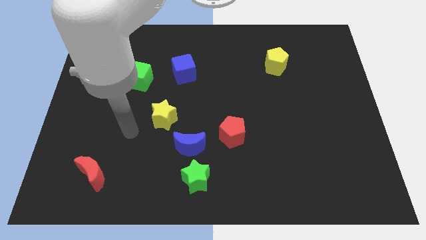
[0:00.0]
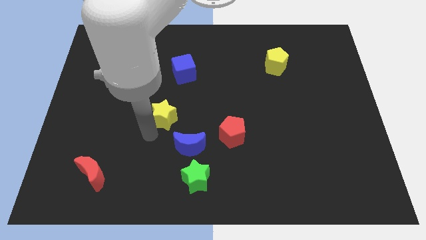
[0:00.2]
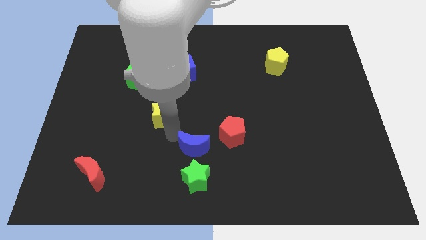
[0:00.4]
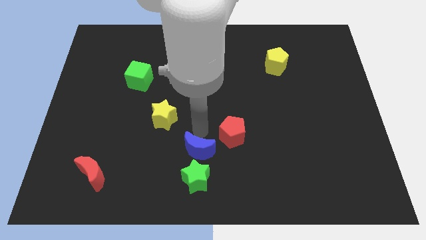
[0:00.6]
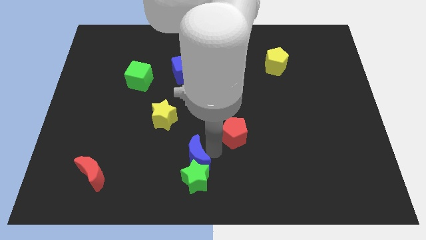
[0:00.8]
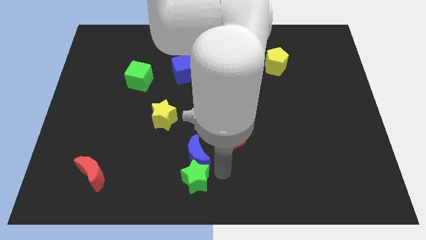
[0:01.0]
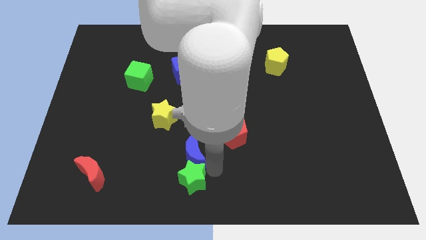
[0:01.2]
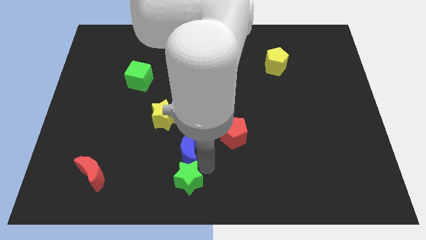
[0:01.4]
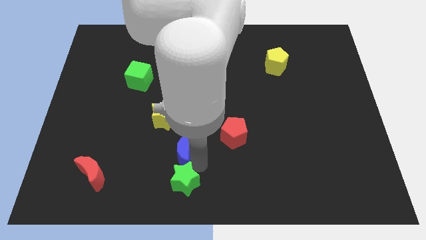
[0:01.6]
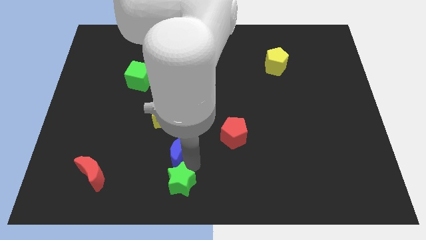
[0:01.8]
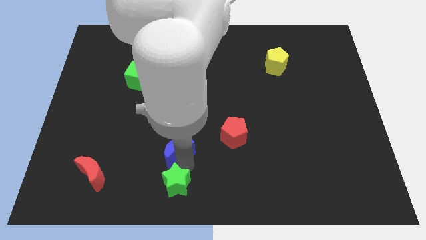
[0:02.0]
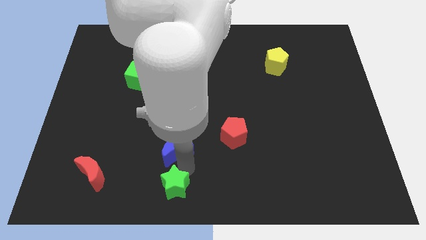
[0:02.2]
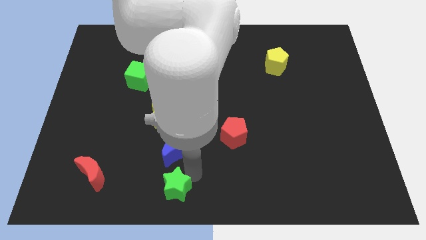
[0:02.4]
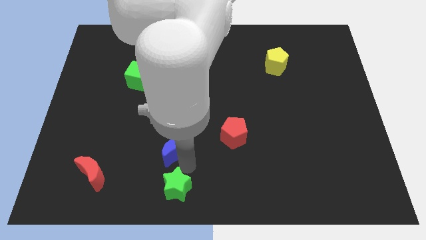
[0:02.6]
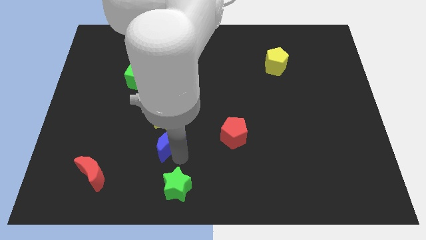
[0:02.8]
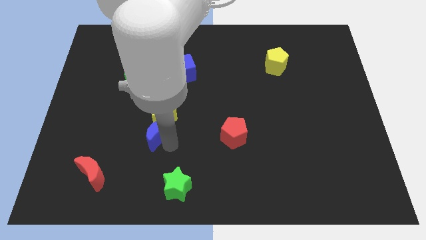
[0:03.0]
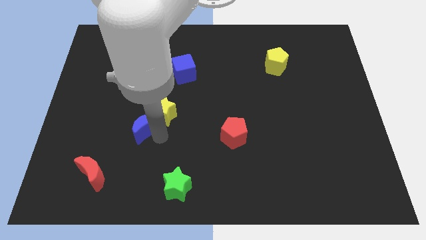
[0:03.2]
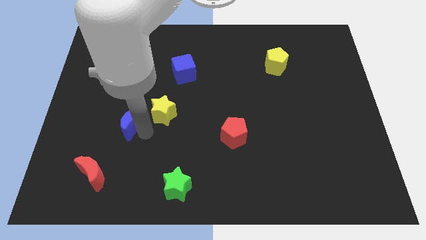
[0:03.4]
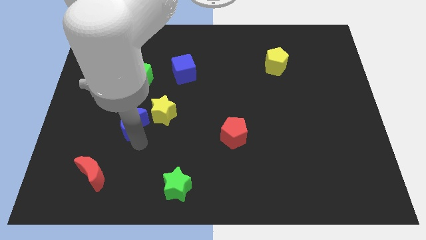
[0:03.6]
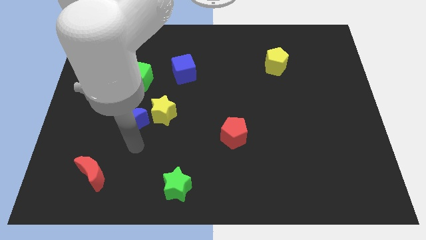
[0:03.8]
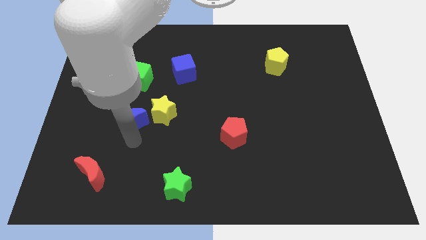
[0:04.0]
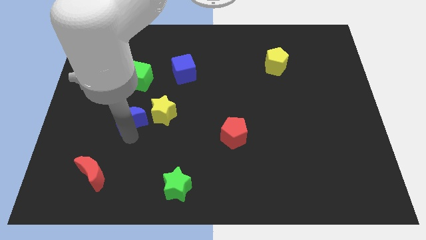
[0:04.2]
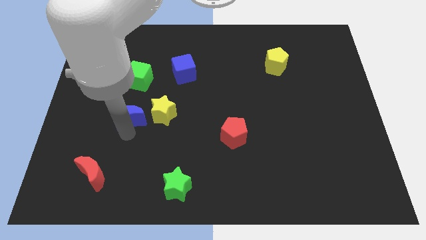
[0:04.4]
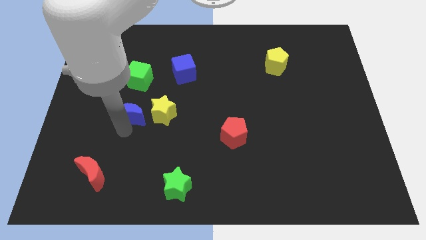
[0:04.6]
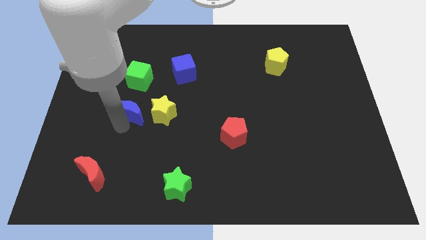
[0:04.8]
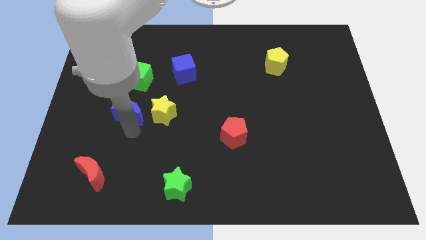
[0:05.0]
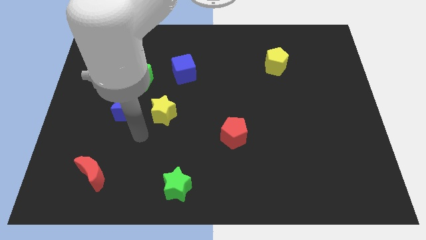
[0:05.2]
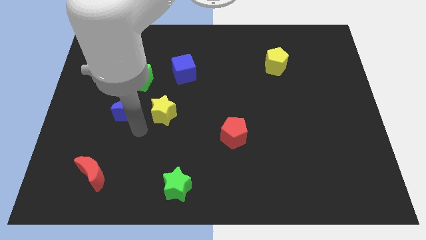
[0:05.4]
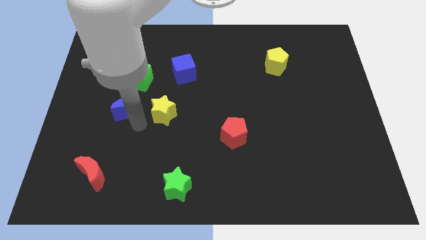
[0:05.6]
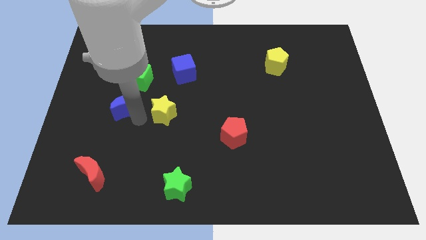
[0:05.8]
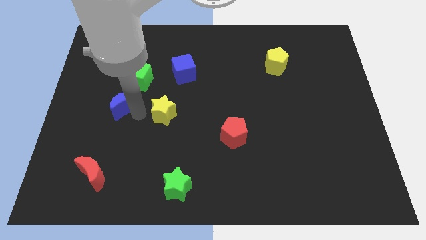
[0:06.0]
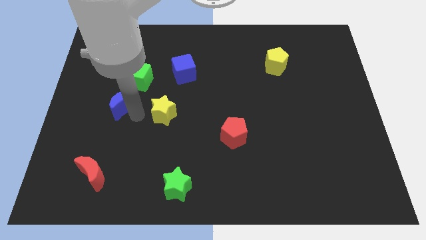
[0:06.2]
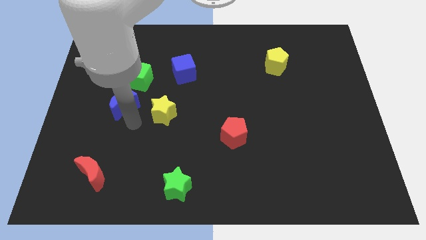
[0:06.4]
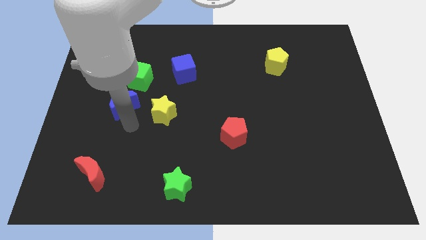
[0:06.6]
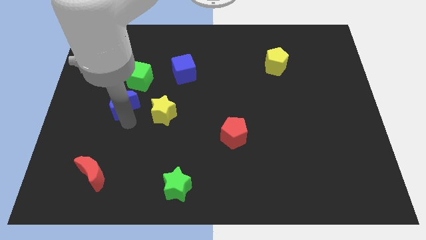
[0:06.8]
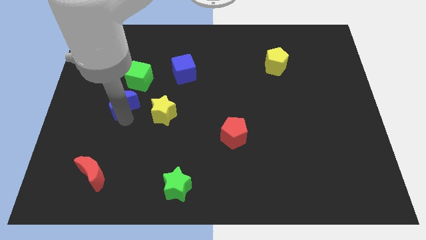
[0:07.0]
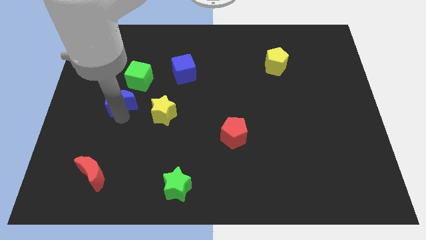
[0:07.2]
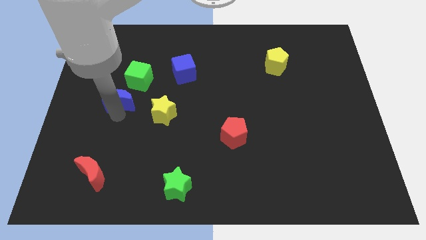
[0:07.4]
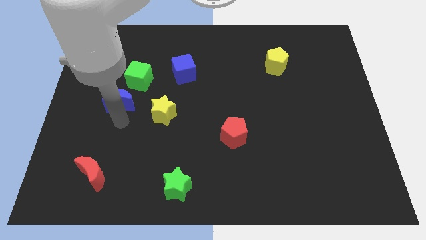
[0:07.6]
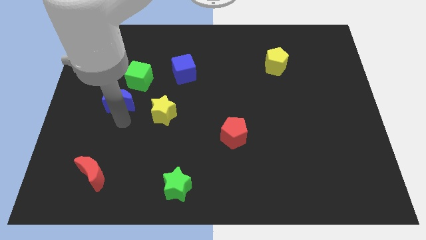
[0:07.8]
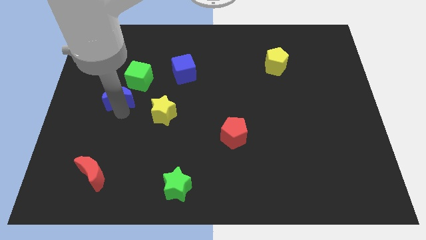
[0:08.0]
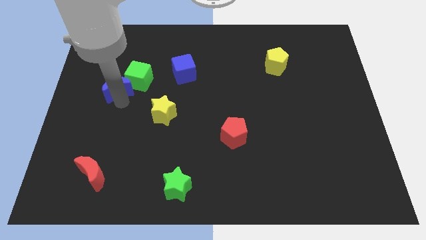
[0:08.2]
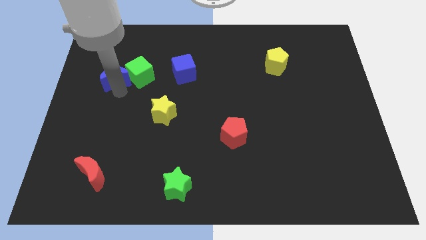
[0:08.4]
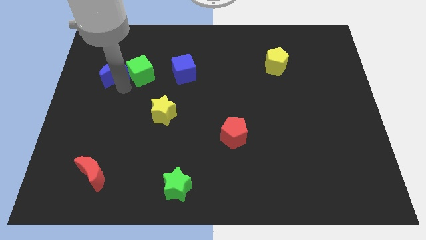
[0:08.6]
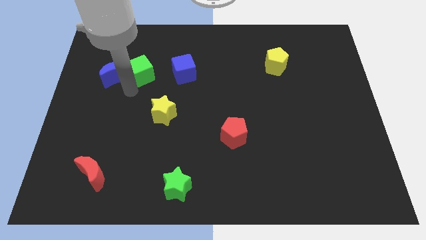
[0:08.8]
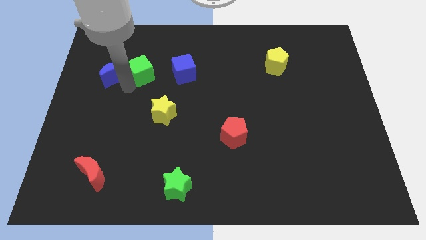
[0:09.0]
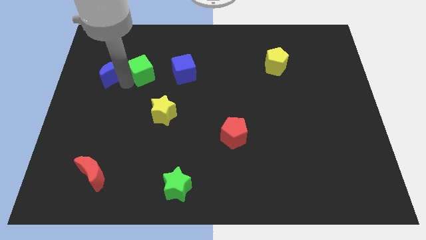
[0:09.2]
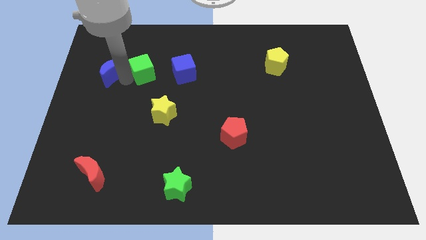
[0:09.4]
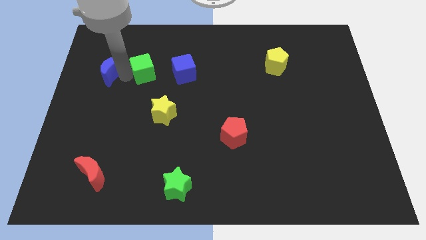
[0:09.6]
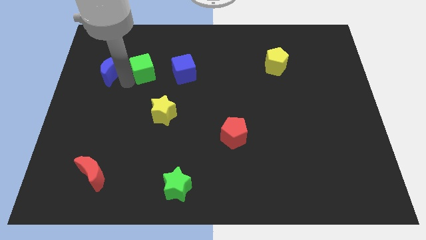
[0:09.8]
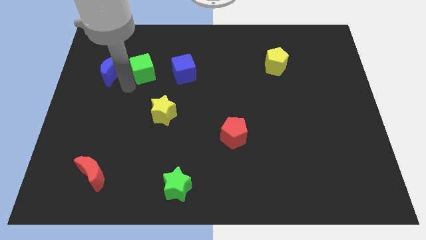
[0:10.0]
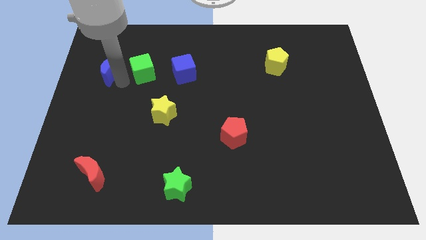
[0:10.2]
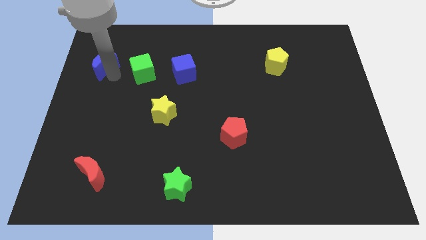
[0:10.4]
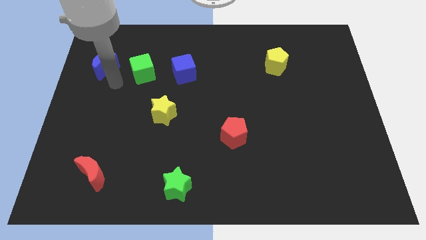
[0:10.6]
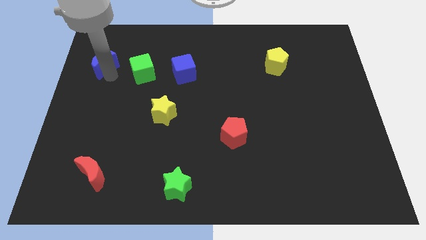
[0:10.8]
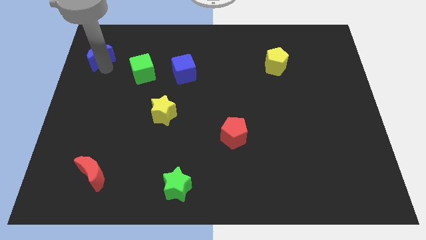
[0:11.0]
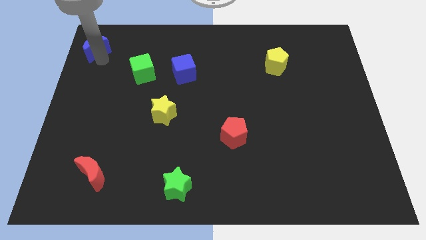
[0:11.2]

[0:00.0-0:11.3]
put the blue moon to the top left

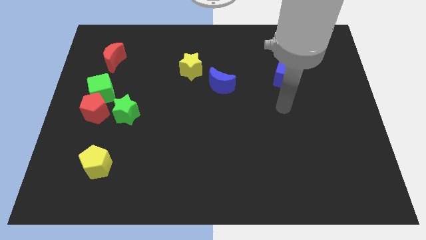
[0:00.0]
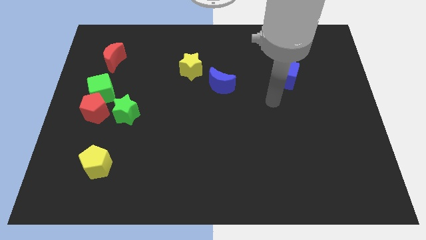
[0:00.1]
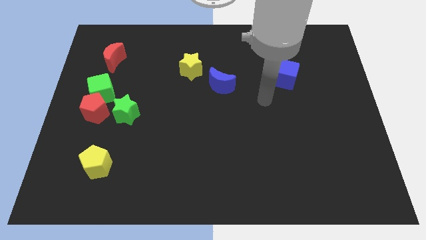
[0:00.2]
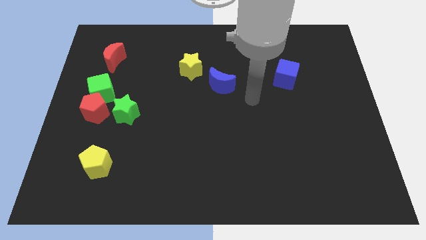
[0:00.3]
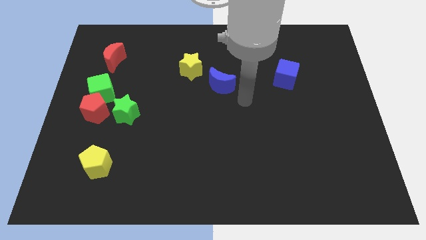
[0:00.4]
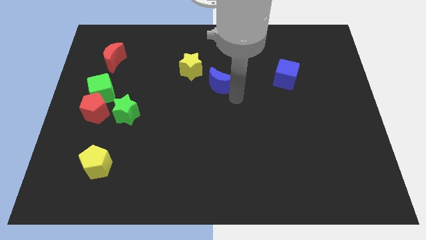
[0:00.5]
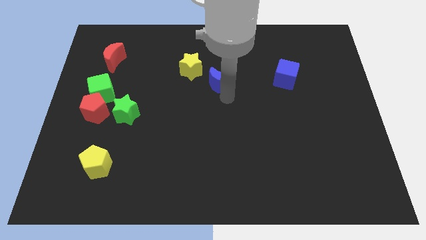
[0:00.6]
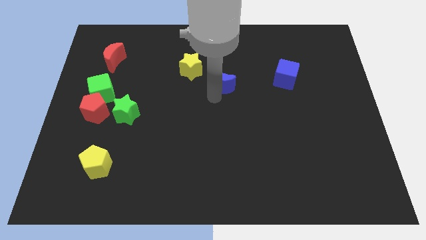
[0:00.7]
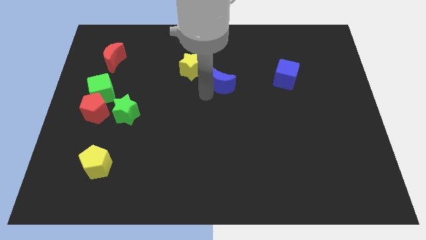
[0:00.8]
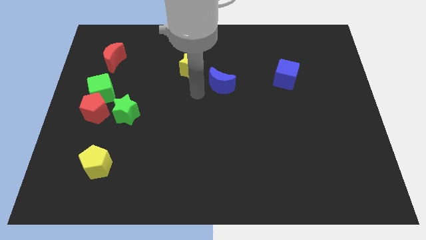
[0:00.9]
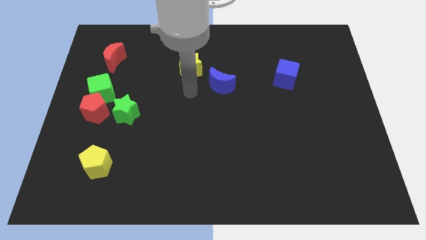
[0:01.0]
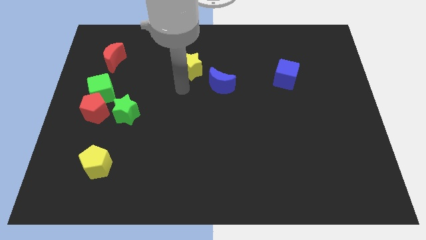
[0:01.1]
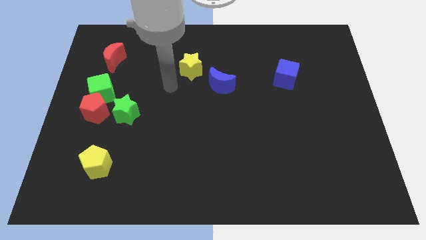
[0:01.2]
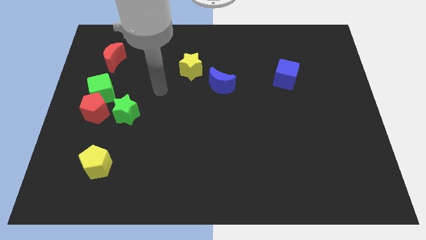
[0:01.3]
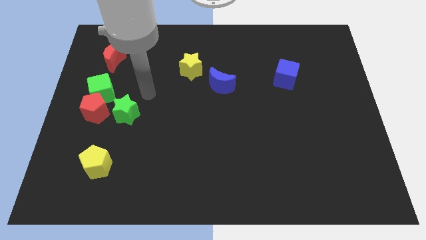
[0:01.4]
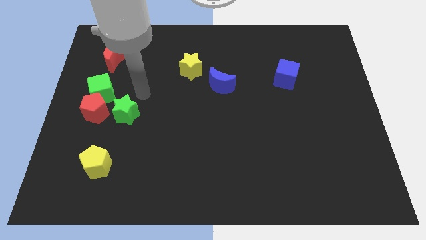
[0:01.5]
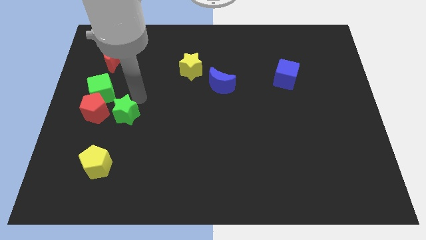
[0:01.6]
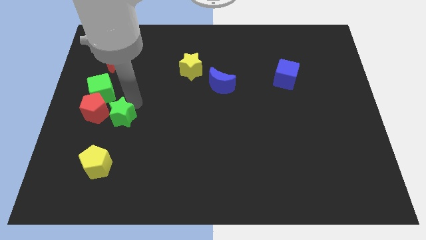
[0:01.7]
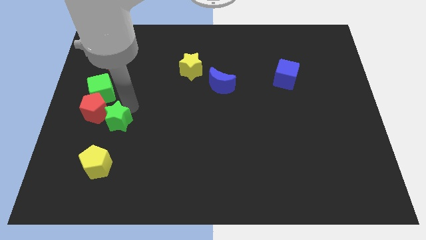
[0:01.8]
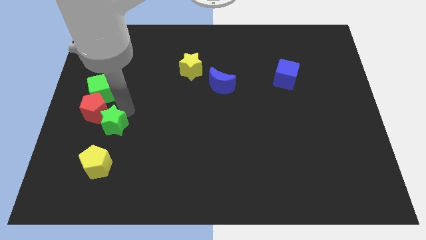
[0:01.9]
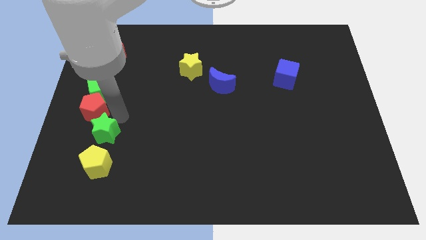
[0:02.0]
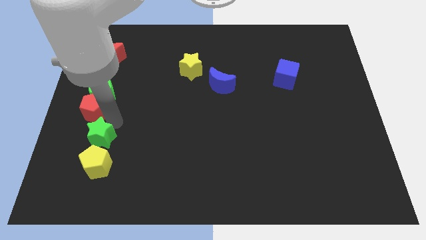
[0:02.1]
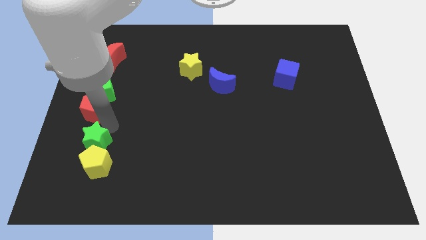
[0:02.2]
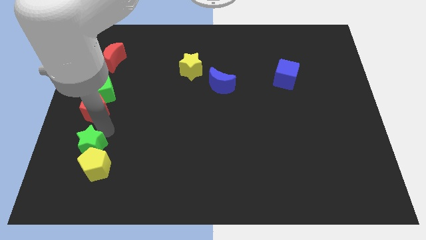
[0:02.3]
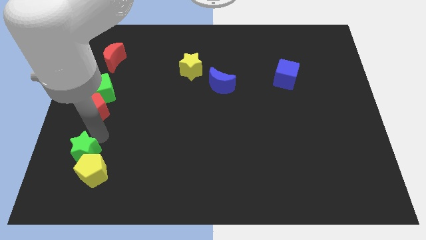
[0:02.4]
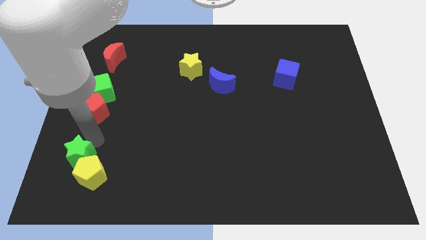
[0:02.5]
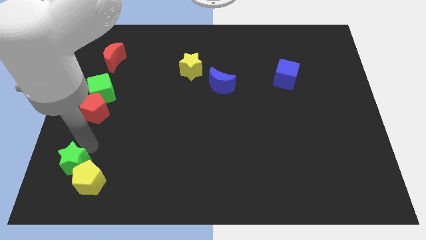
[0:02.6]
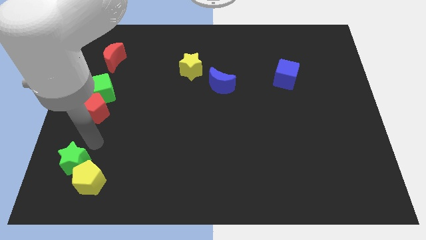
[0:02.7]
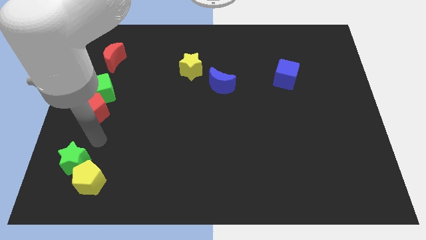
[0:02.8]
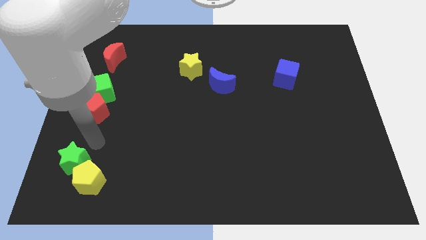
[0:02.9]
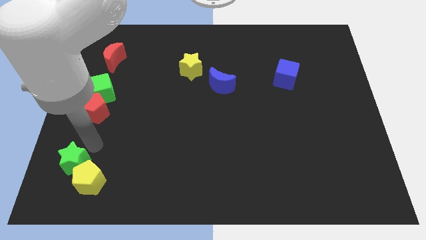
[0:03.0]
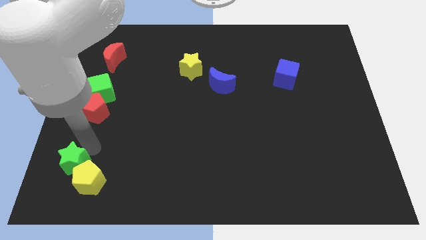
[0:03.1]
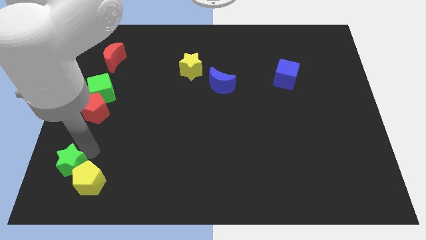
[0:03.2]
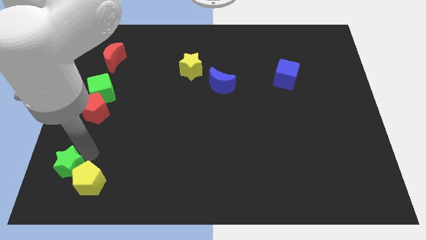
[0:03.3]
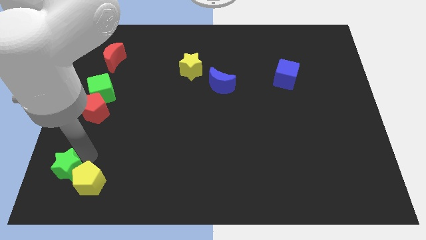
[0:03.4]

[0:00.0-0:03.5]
put the green star to the bottom left of the board
